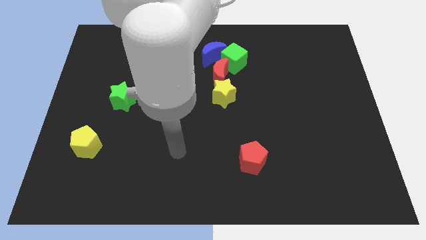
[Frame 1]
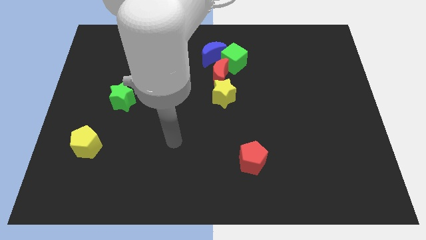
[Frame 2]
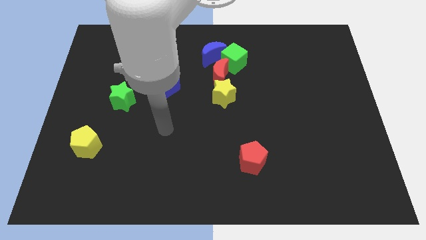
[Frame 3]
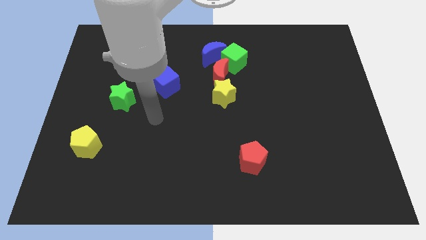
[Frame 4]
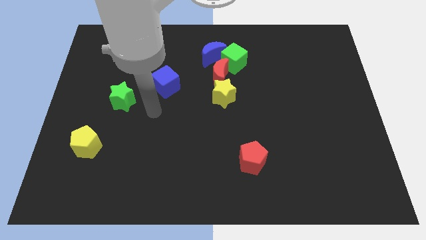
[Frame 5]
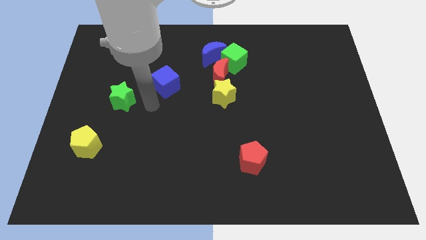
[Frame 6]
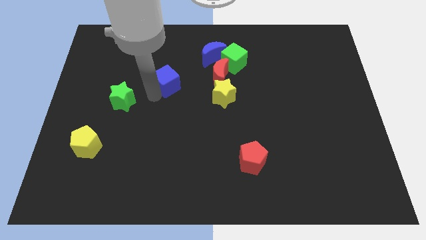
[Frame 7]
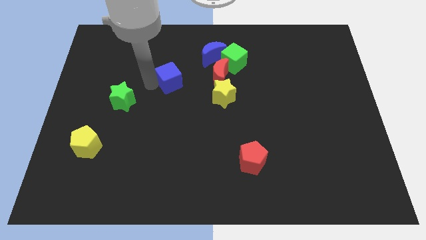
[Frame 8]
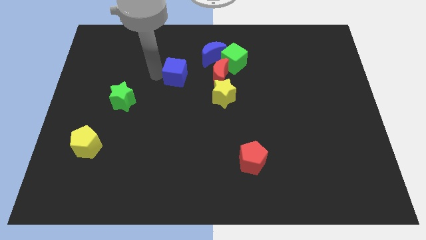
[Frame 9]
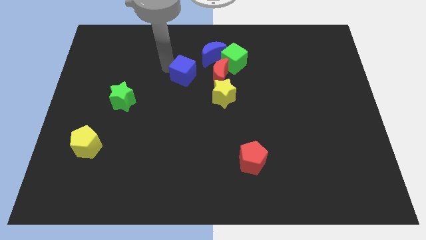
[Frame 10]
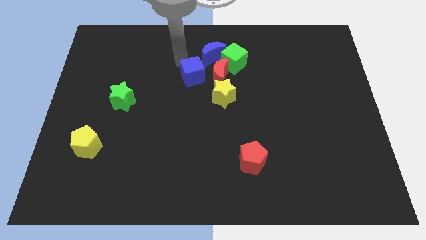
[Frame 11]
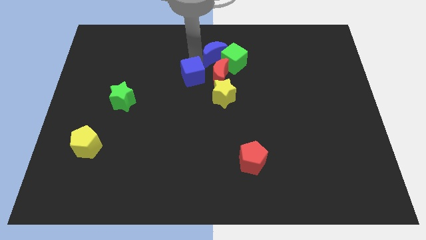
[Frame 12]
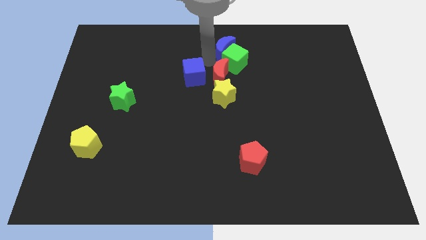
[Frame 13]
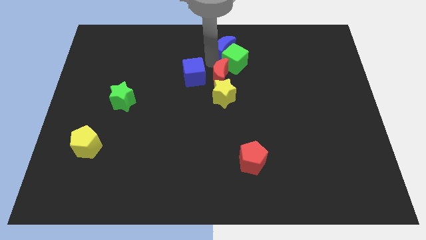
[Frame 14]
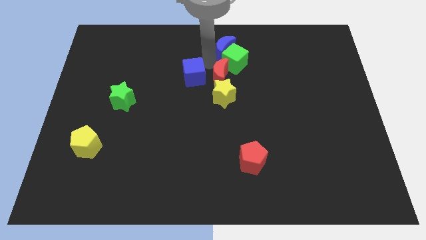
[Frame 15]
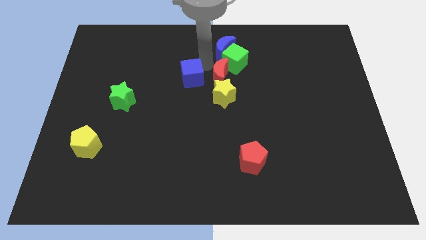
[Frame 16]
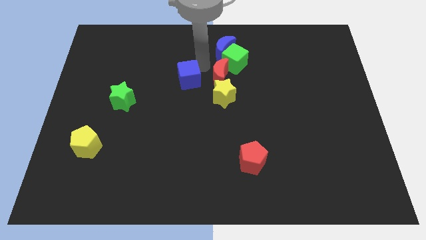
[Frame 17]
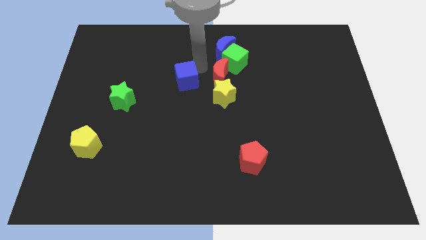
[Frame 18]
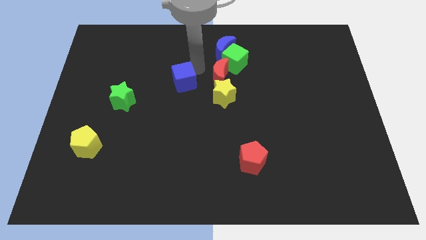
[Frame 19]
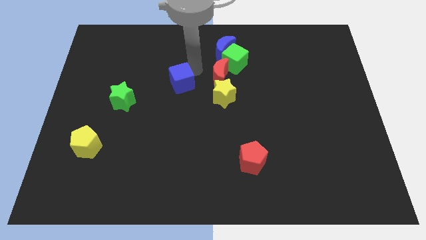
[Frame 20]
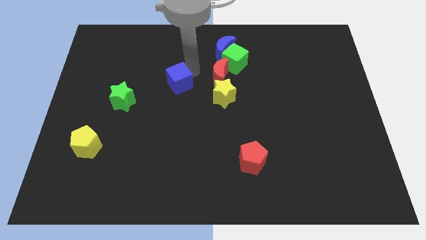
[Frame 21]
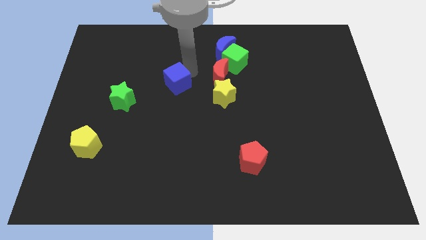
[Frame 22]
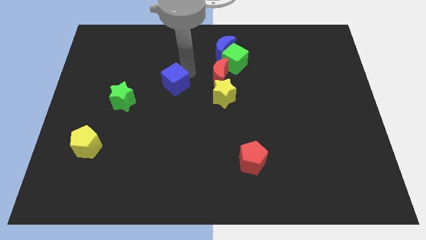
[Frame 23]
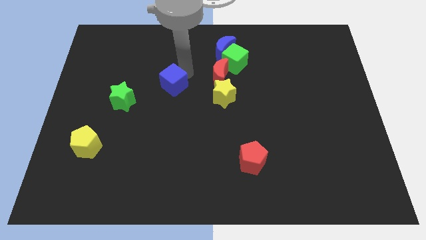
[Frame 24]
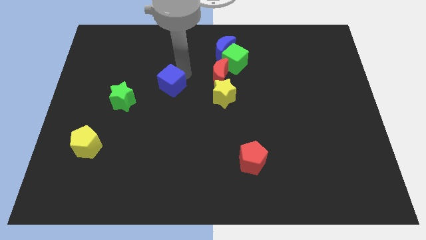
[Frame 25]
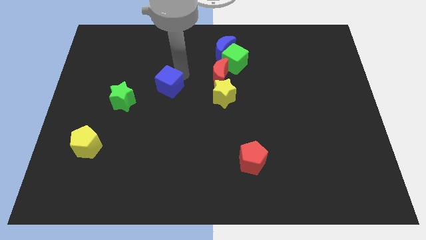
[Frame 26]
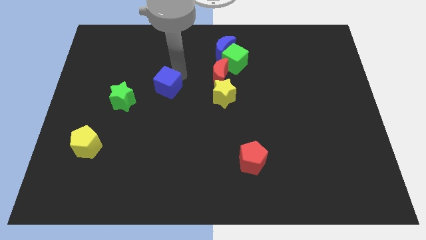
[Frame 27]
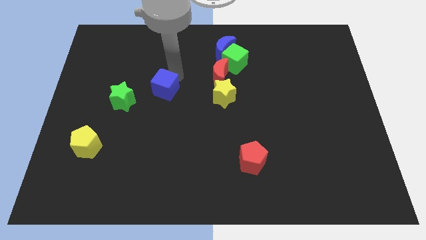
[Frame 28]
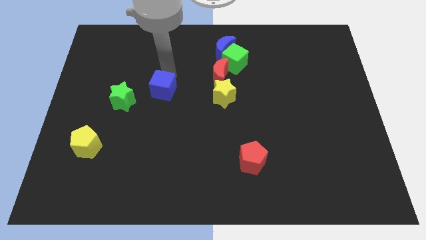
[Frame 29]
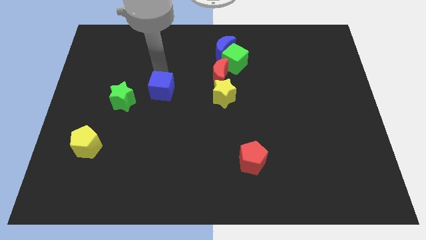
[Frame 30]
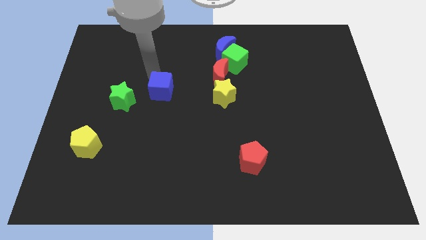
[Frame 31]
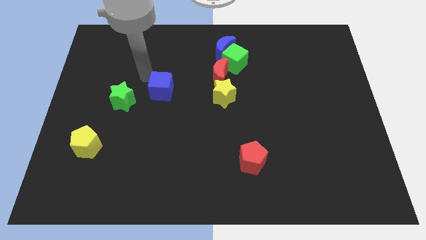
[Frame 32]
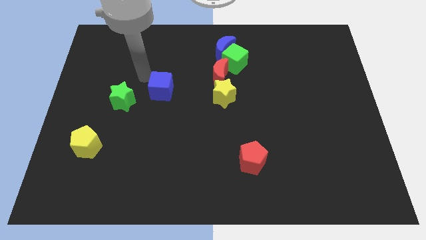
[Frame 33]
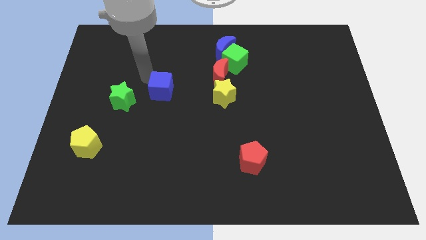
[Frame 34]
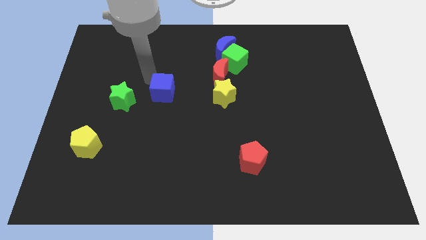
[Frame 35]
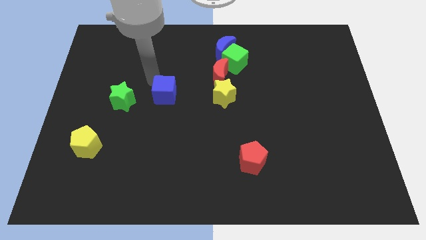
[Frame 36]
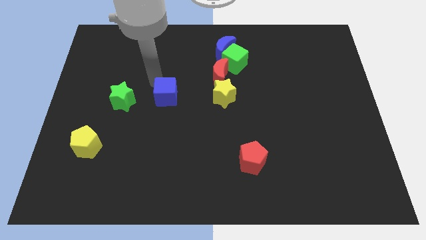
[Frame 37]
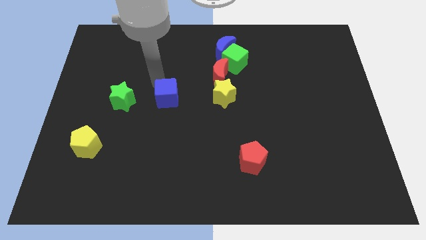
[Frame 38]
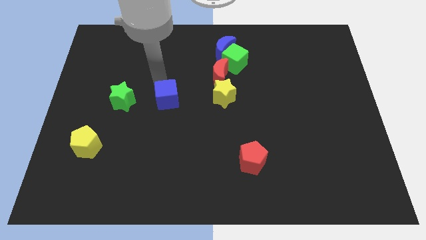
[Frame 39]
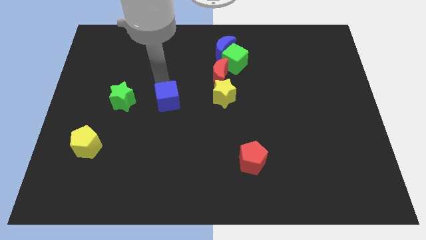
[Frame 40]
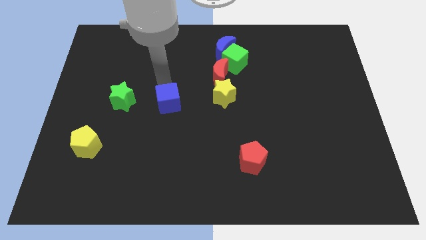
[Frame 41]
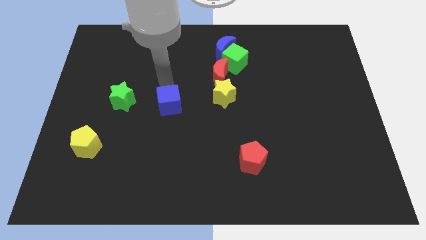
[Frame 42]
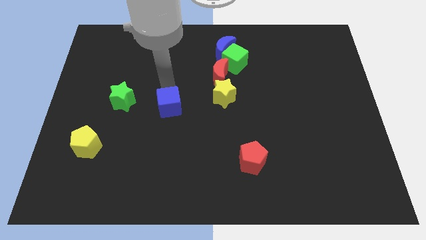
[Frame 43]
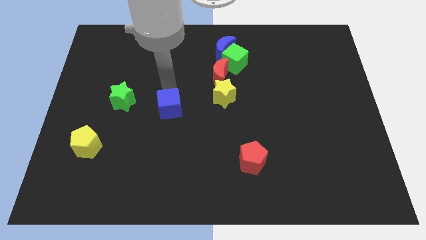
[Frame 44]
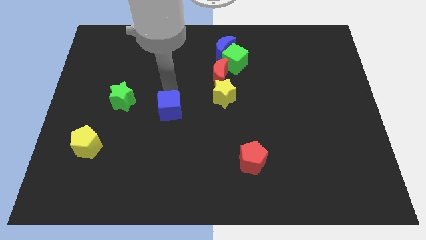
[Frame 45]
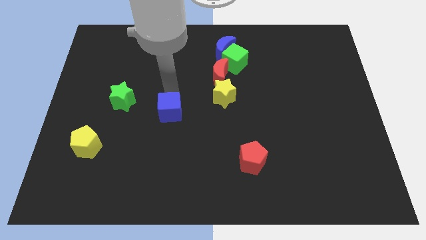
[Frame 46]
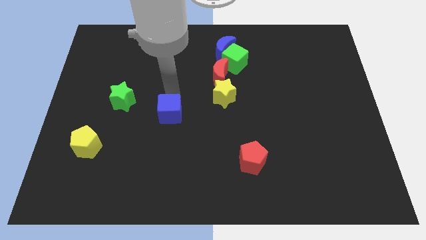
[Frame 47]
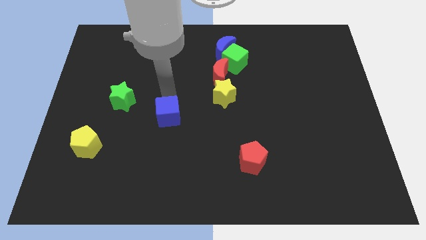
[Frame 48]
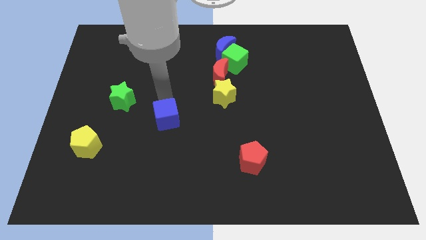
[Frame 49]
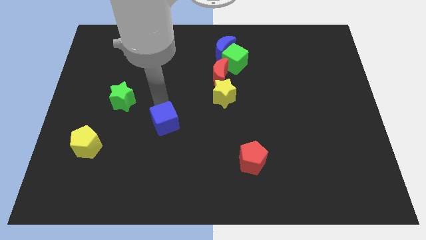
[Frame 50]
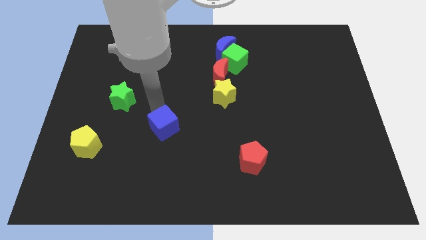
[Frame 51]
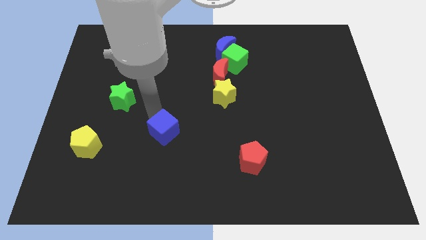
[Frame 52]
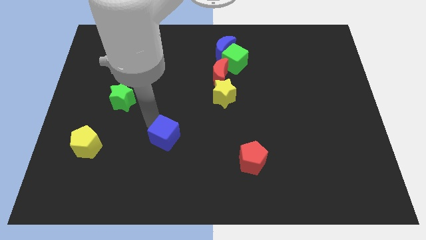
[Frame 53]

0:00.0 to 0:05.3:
push the blue cube a bit diagonally down and to the right

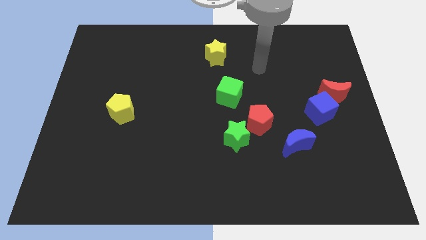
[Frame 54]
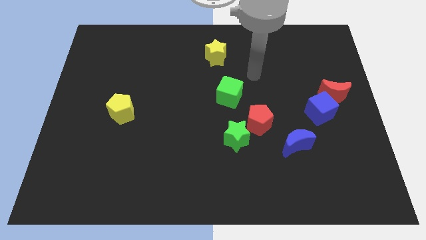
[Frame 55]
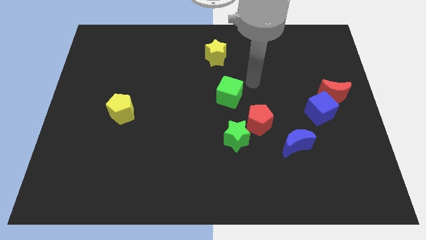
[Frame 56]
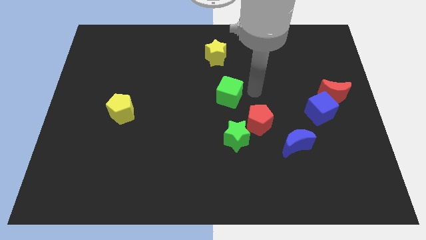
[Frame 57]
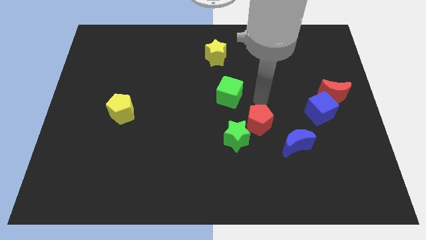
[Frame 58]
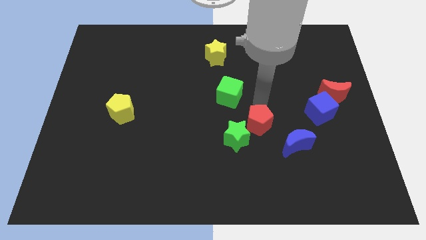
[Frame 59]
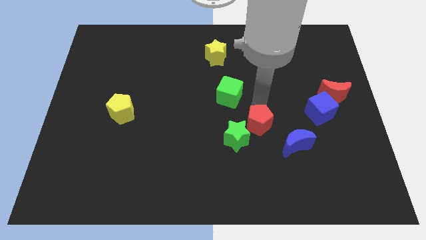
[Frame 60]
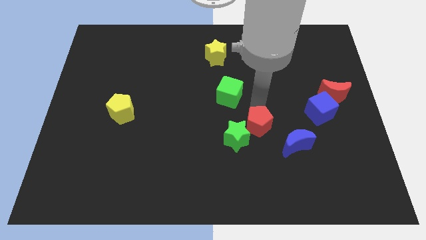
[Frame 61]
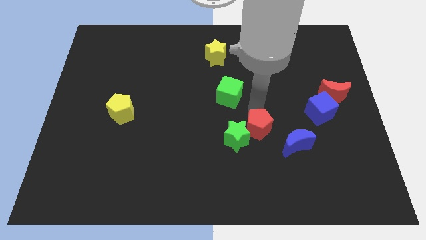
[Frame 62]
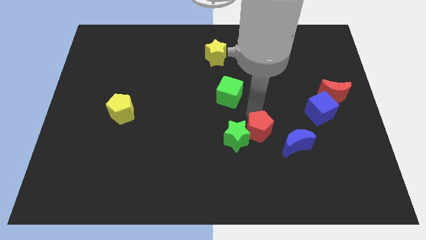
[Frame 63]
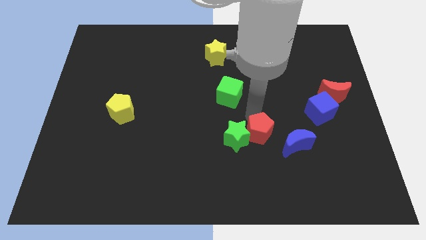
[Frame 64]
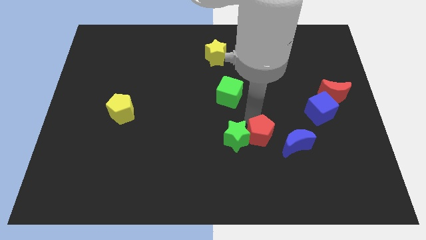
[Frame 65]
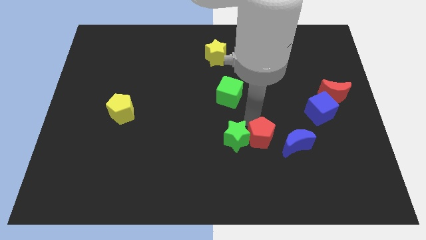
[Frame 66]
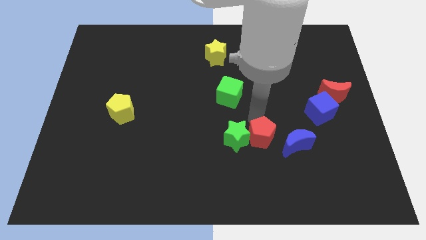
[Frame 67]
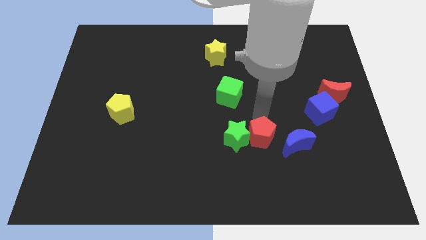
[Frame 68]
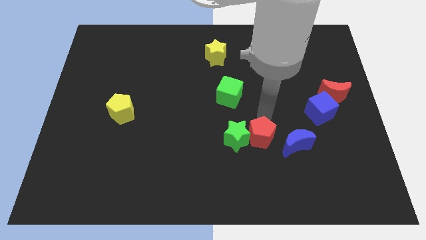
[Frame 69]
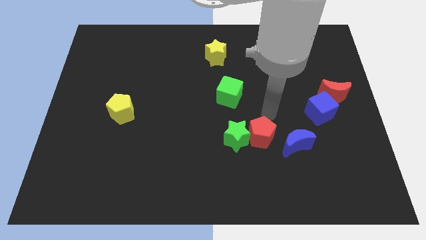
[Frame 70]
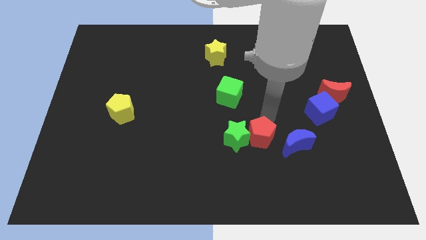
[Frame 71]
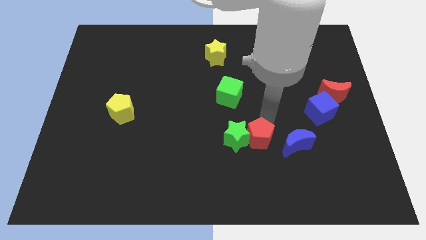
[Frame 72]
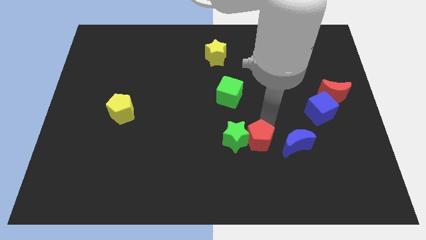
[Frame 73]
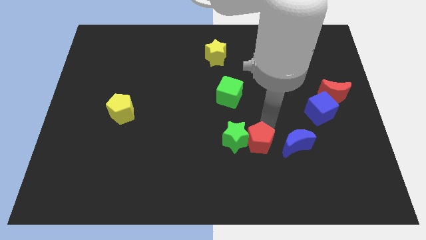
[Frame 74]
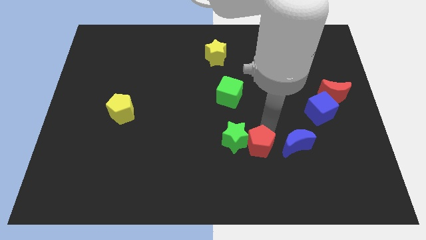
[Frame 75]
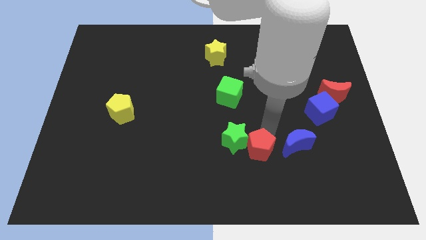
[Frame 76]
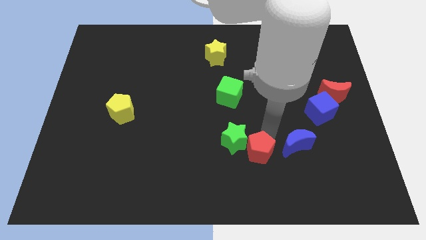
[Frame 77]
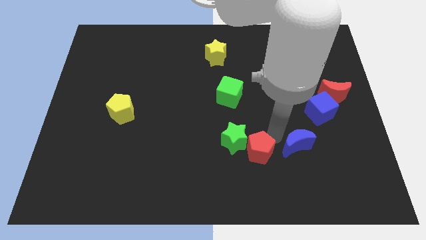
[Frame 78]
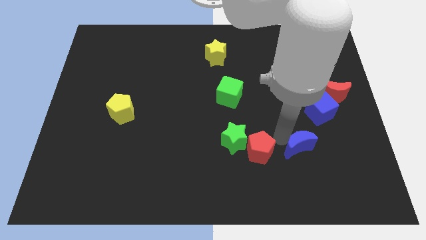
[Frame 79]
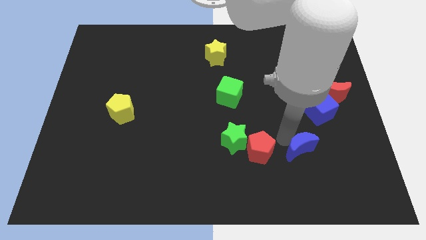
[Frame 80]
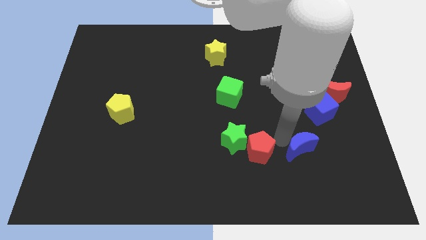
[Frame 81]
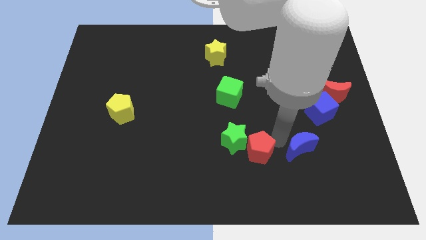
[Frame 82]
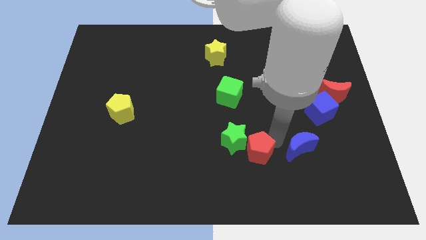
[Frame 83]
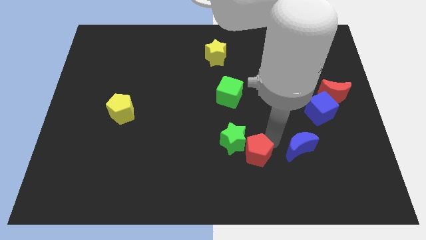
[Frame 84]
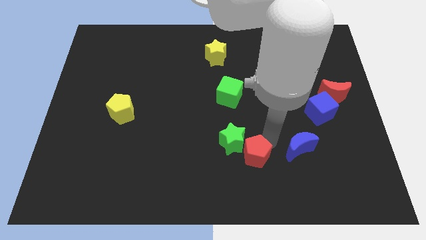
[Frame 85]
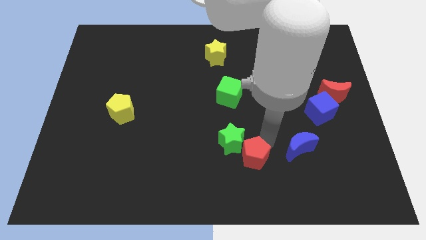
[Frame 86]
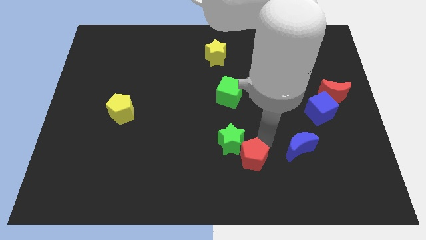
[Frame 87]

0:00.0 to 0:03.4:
push the red pentagon down and to the left somewhat

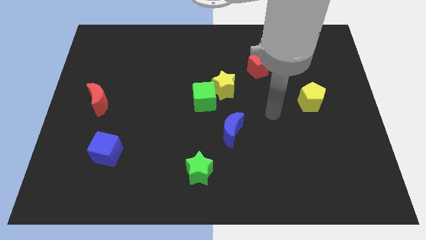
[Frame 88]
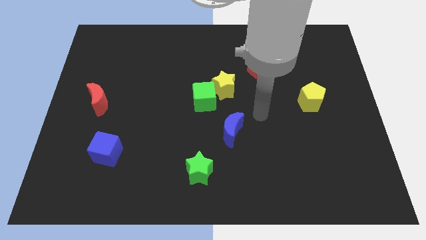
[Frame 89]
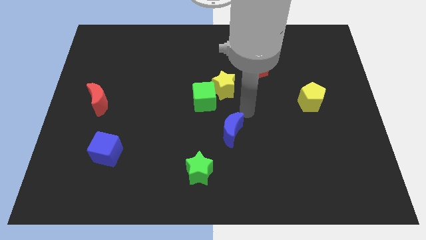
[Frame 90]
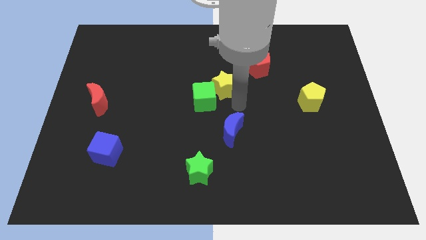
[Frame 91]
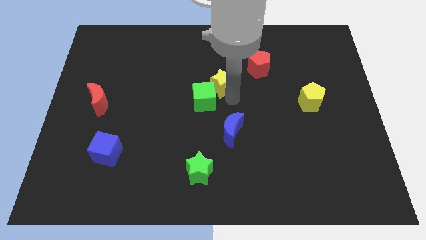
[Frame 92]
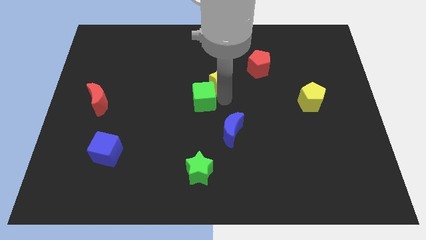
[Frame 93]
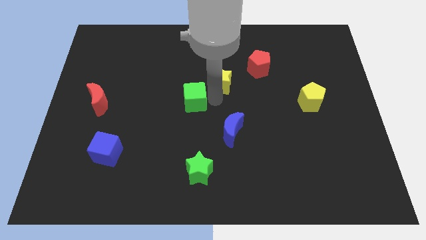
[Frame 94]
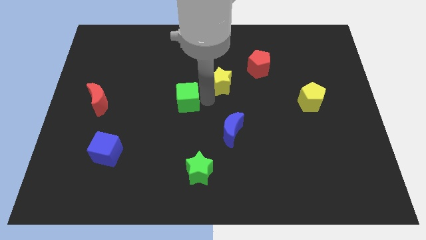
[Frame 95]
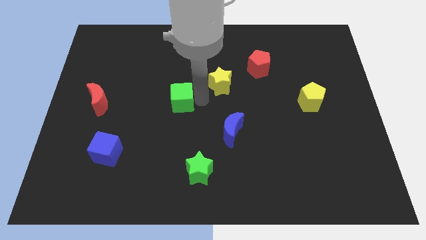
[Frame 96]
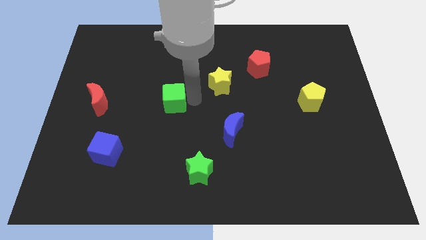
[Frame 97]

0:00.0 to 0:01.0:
slide the green cube to the left a bit
